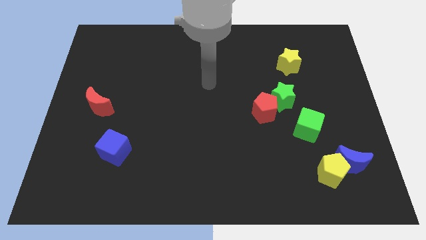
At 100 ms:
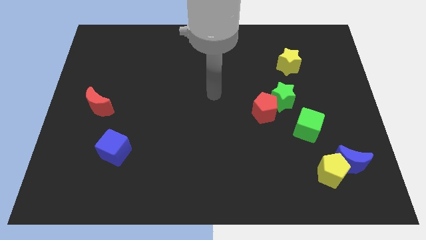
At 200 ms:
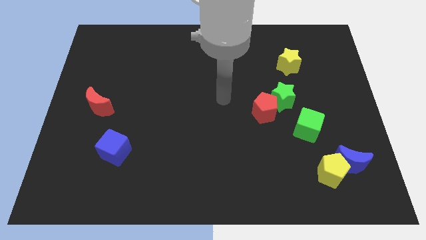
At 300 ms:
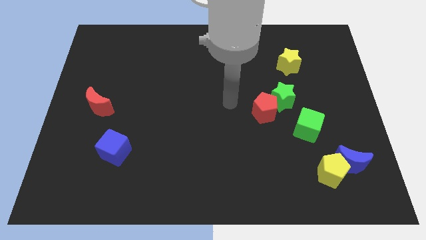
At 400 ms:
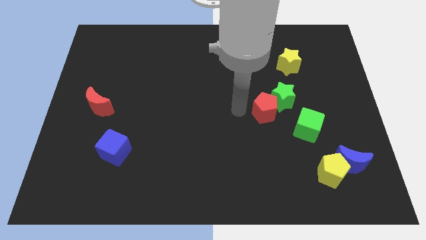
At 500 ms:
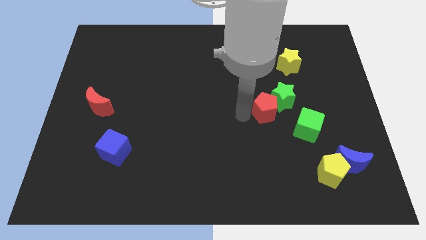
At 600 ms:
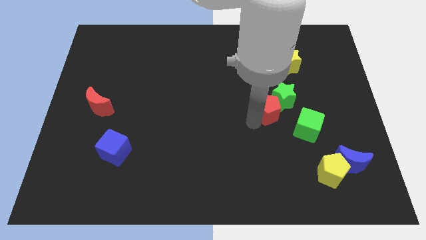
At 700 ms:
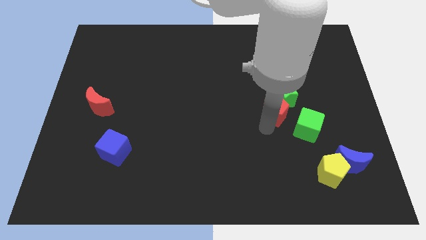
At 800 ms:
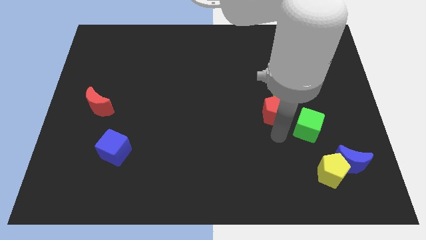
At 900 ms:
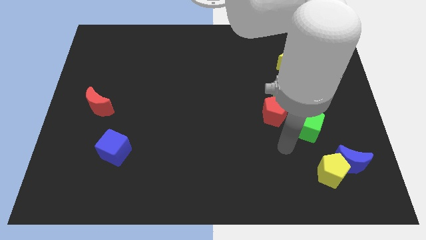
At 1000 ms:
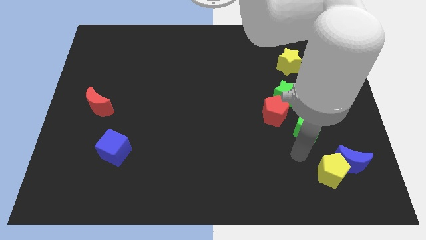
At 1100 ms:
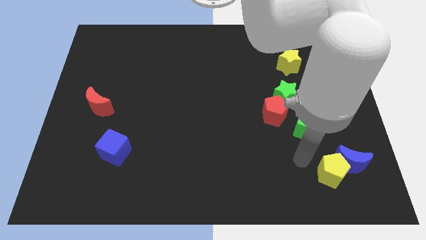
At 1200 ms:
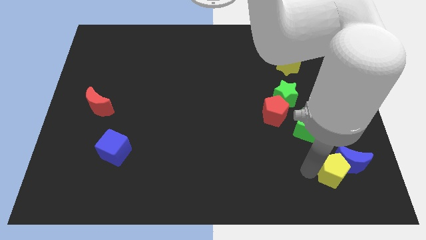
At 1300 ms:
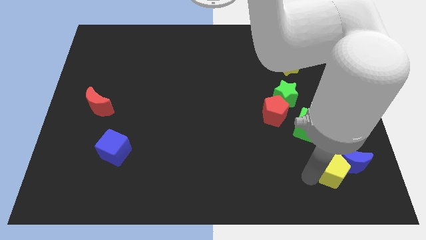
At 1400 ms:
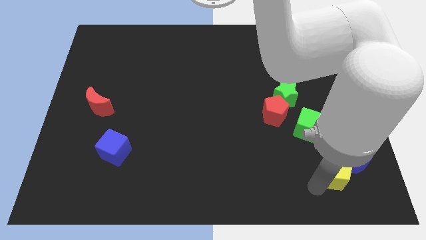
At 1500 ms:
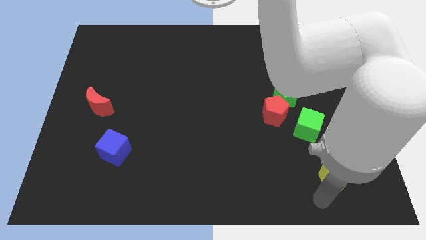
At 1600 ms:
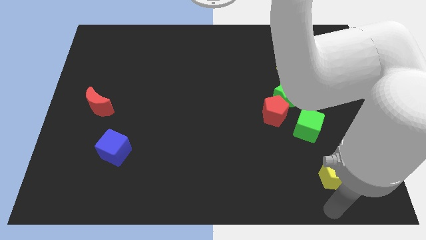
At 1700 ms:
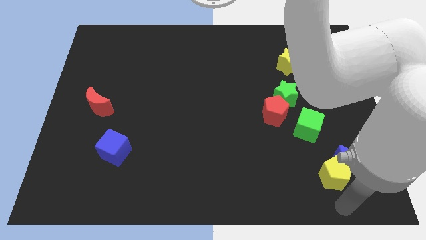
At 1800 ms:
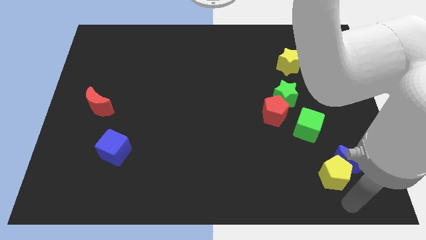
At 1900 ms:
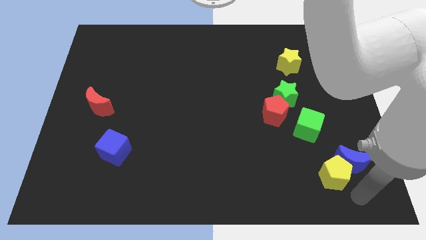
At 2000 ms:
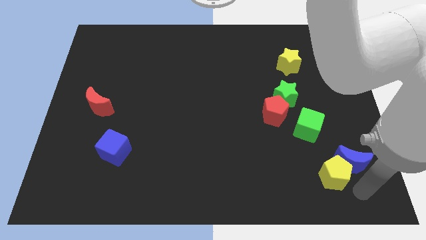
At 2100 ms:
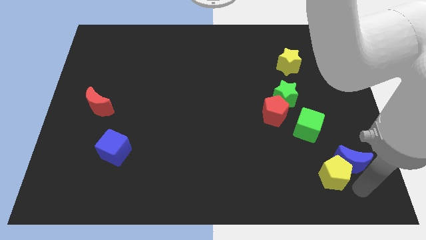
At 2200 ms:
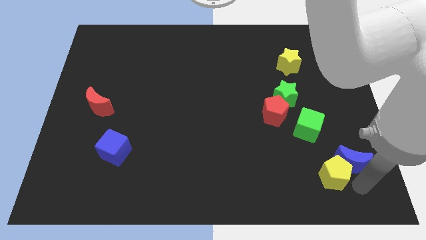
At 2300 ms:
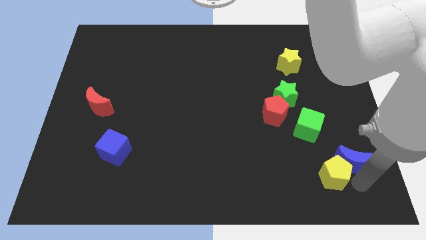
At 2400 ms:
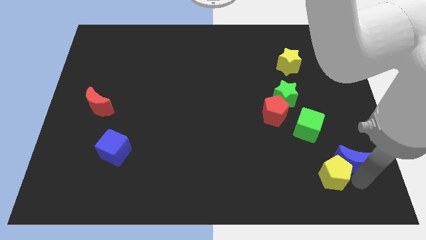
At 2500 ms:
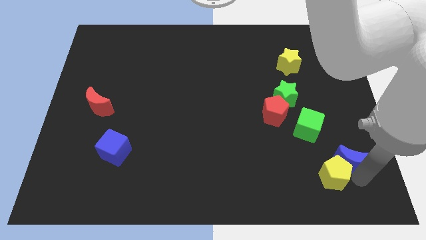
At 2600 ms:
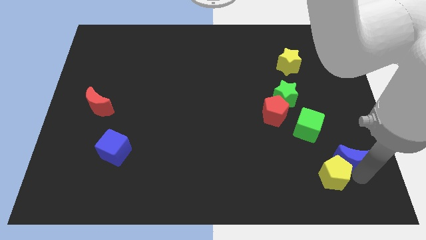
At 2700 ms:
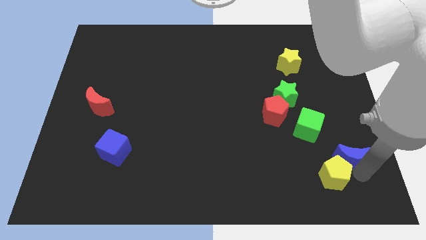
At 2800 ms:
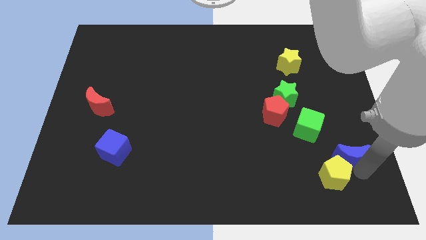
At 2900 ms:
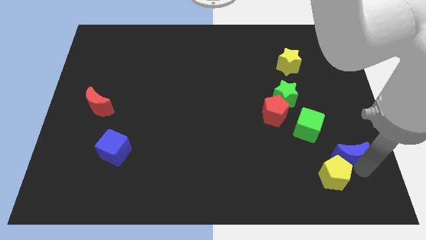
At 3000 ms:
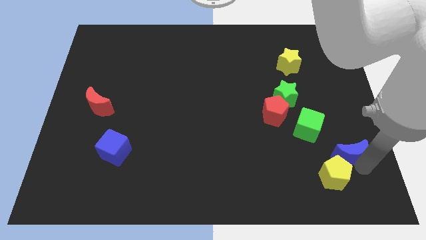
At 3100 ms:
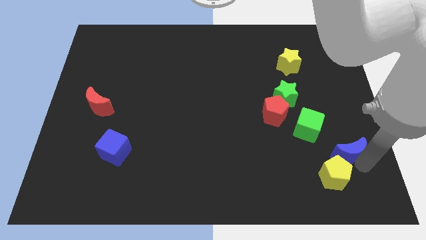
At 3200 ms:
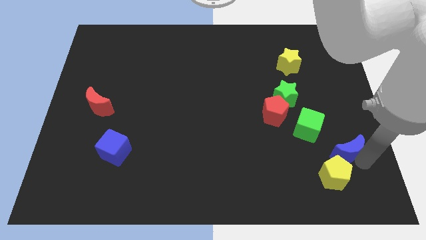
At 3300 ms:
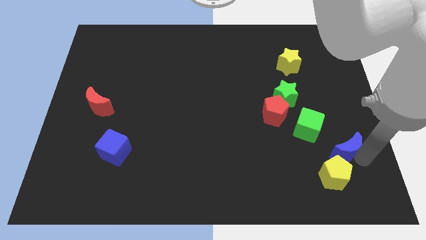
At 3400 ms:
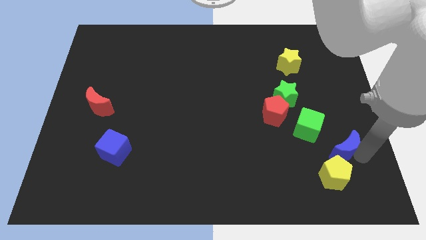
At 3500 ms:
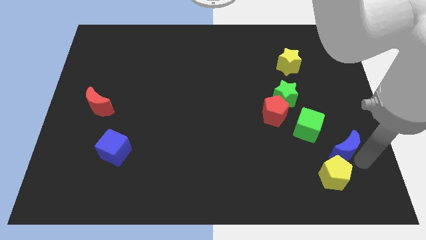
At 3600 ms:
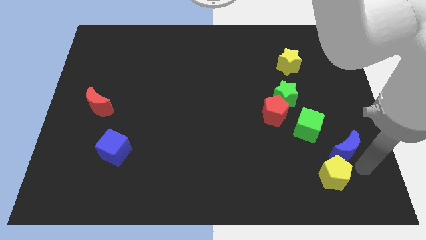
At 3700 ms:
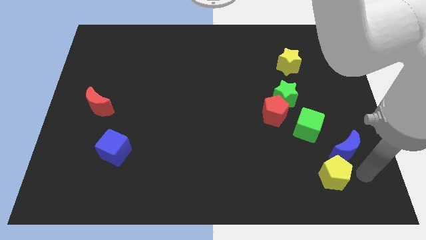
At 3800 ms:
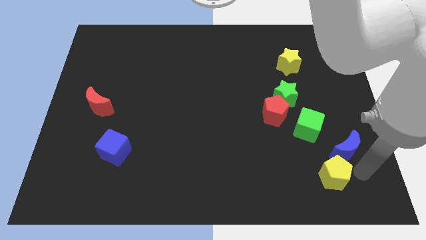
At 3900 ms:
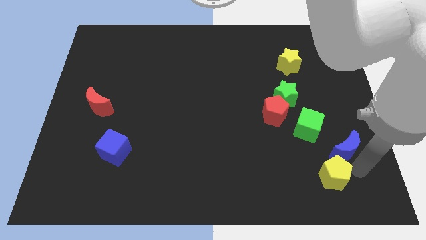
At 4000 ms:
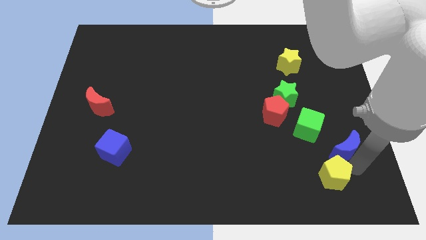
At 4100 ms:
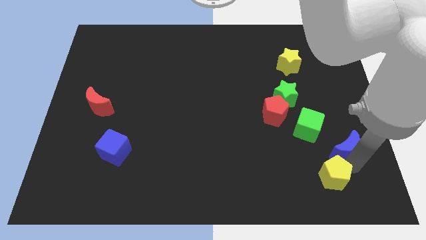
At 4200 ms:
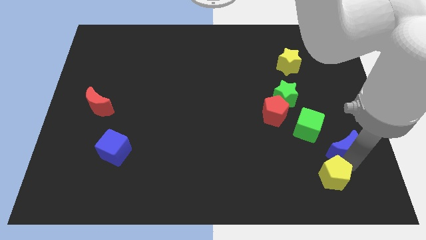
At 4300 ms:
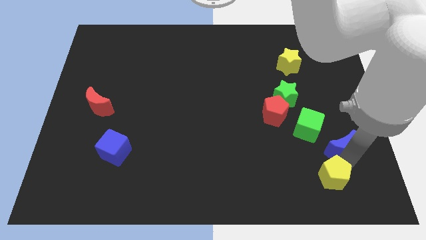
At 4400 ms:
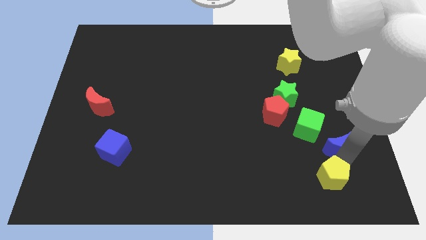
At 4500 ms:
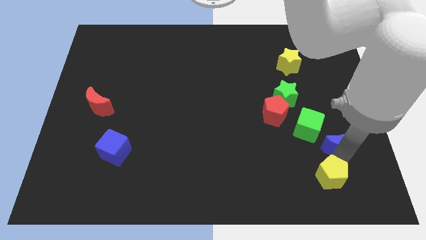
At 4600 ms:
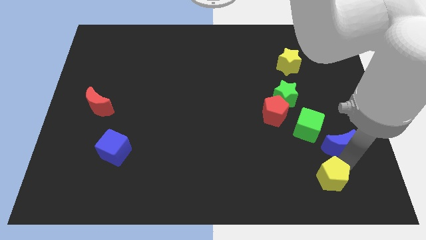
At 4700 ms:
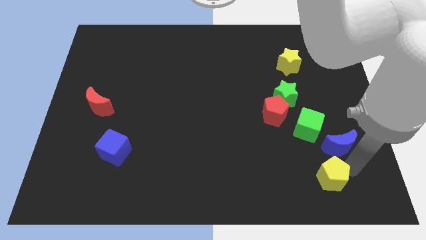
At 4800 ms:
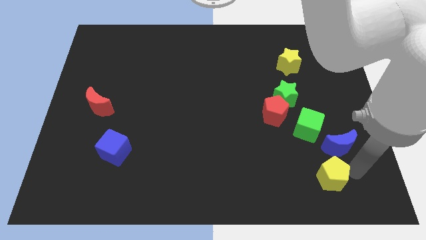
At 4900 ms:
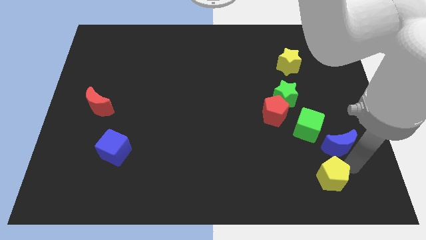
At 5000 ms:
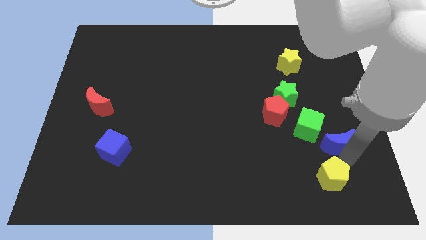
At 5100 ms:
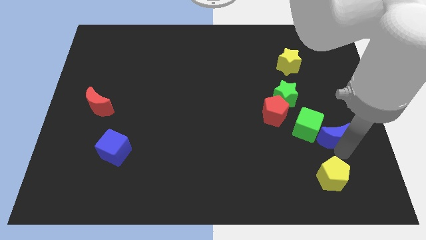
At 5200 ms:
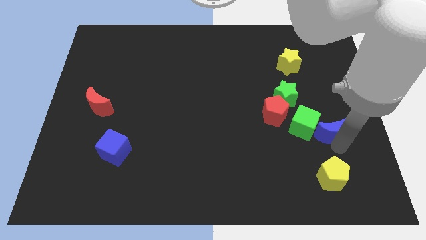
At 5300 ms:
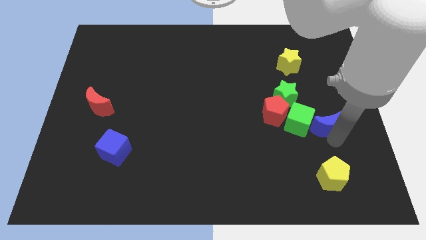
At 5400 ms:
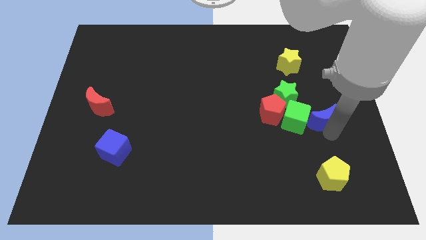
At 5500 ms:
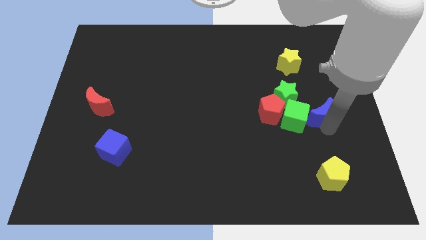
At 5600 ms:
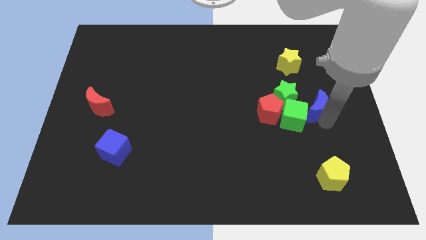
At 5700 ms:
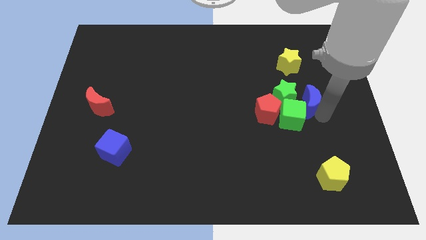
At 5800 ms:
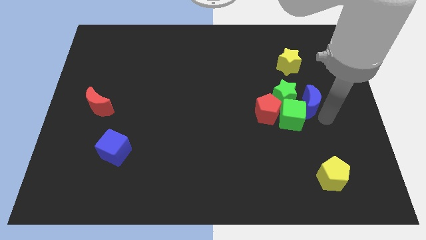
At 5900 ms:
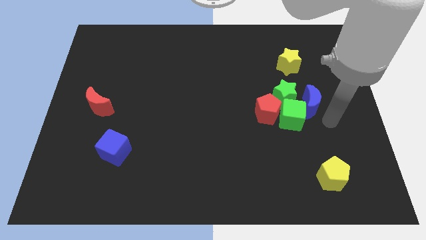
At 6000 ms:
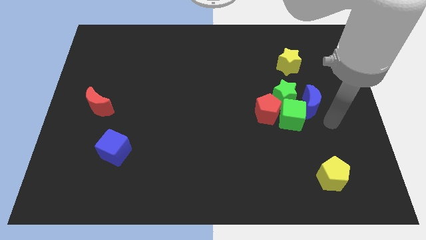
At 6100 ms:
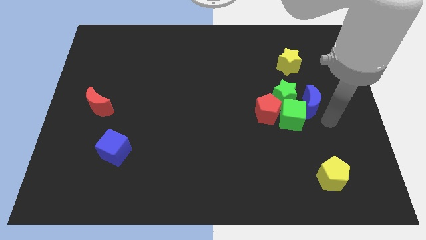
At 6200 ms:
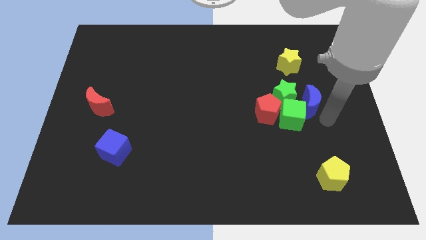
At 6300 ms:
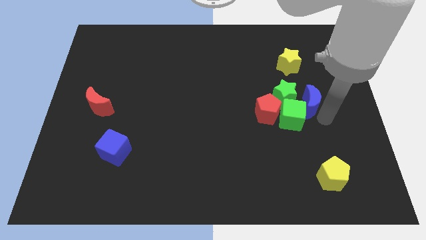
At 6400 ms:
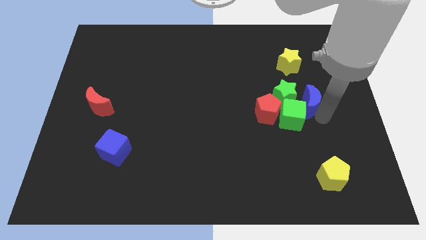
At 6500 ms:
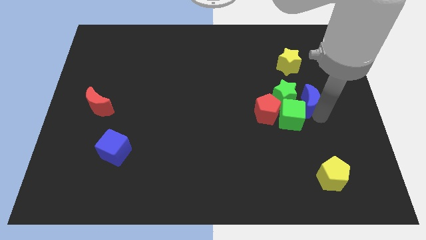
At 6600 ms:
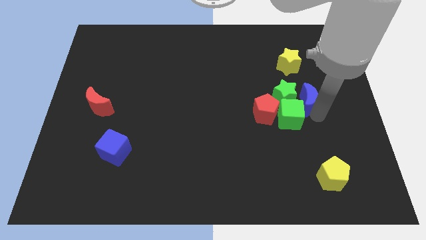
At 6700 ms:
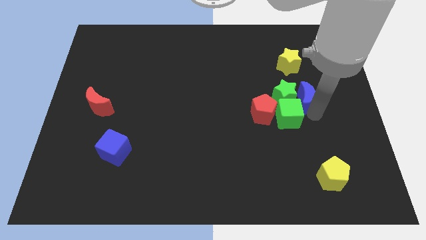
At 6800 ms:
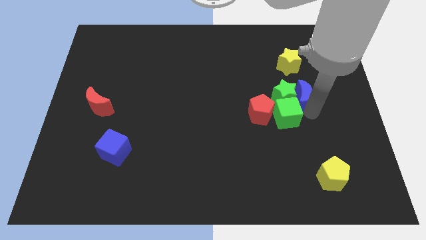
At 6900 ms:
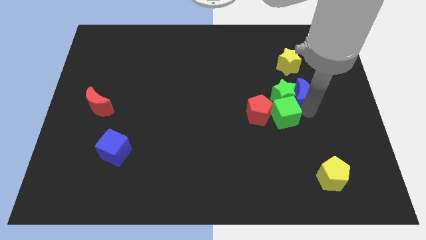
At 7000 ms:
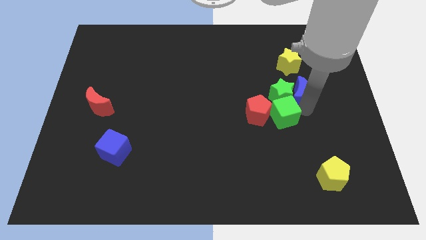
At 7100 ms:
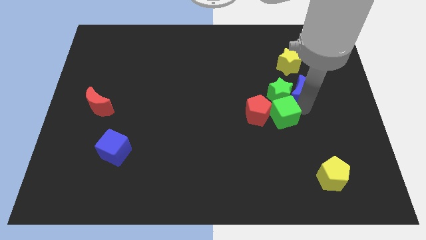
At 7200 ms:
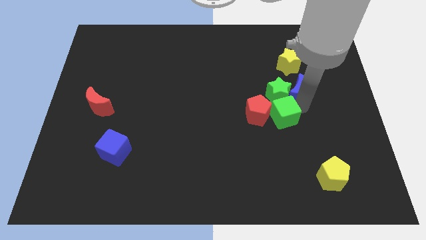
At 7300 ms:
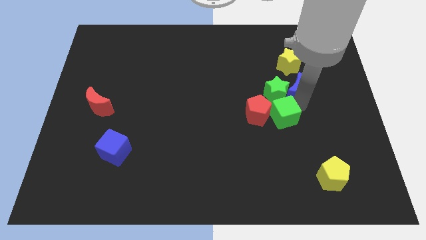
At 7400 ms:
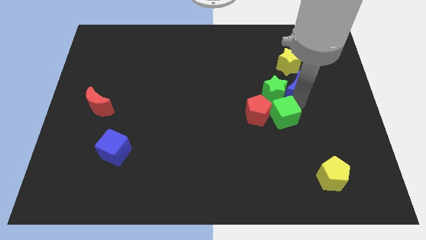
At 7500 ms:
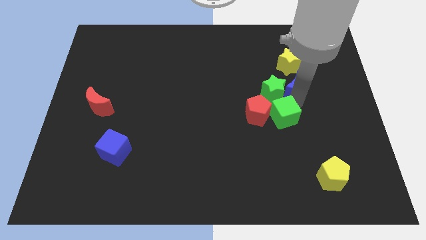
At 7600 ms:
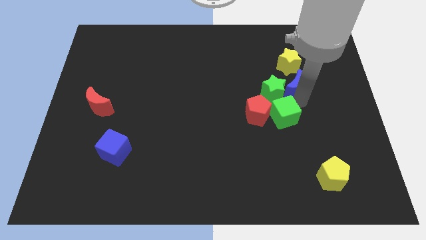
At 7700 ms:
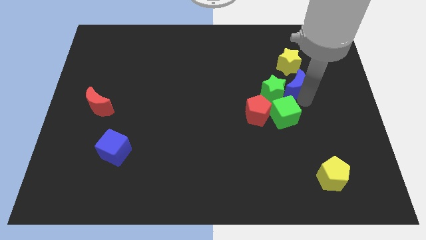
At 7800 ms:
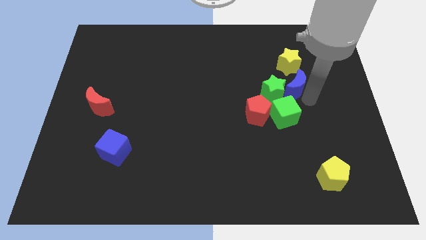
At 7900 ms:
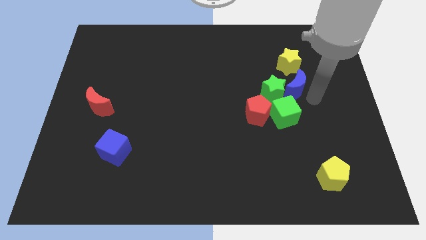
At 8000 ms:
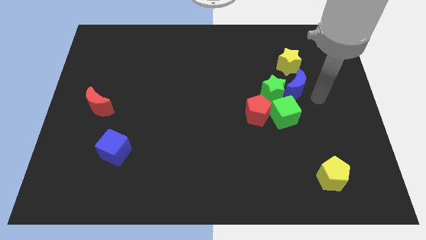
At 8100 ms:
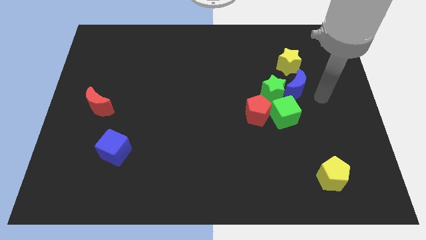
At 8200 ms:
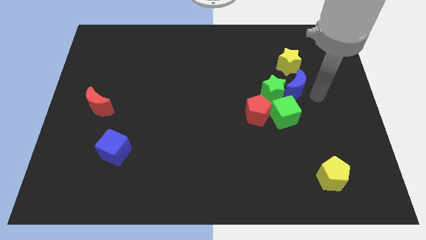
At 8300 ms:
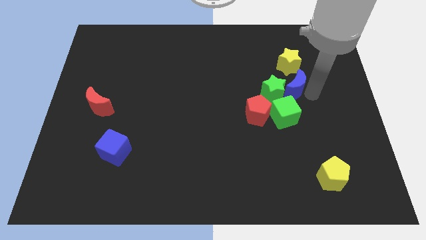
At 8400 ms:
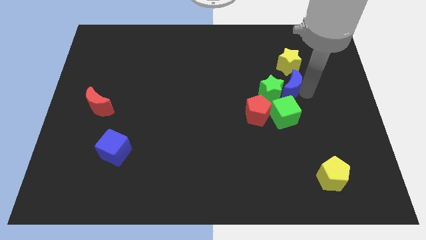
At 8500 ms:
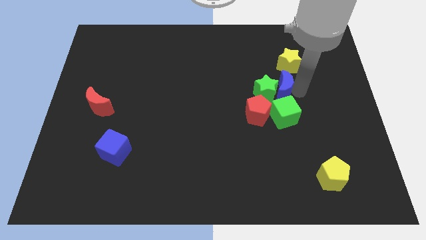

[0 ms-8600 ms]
push the blue moon to the bottom left of the yellow star
